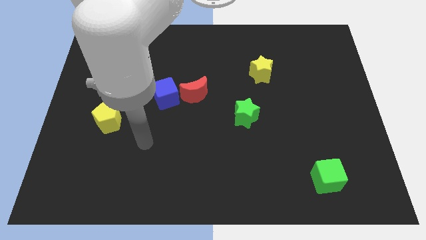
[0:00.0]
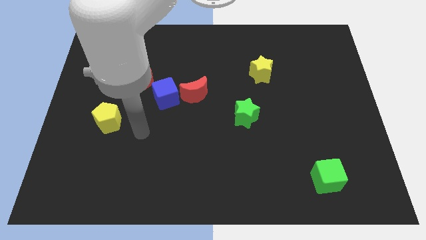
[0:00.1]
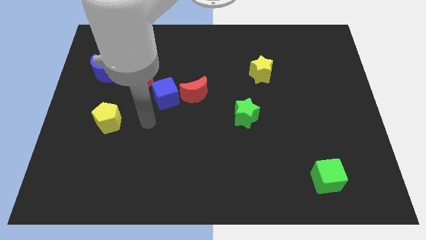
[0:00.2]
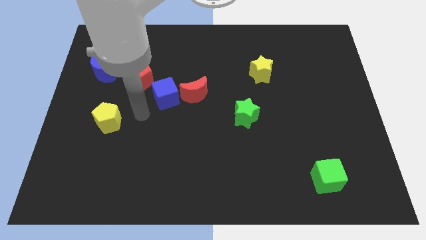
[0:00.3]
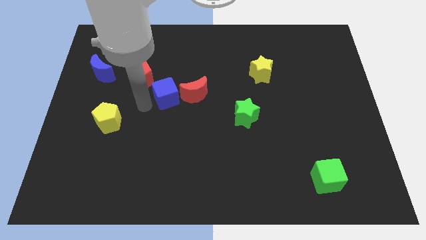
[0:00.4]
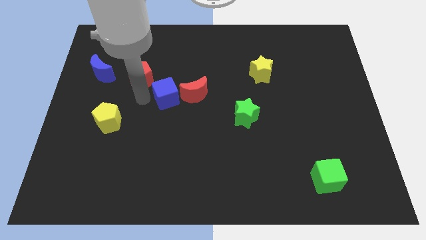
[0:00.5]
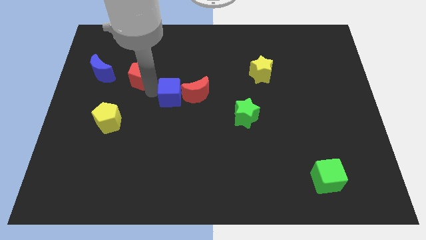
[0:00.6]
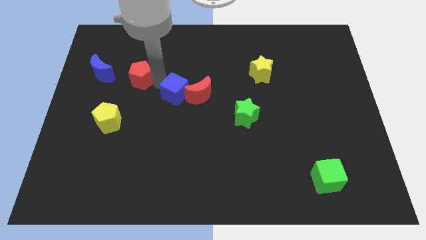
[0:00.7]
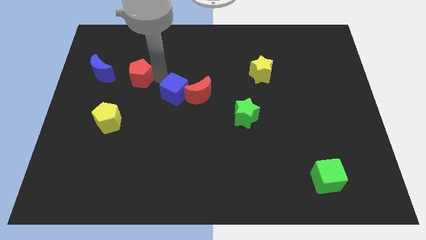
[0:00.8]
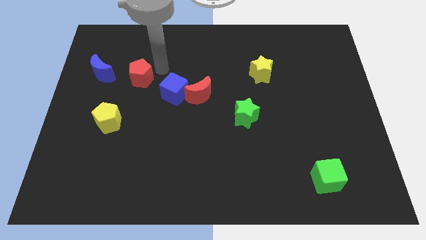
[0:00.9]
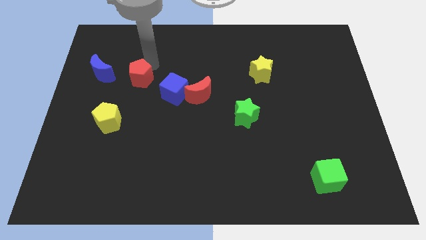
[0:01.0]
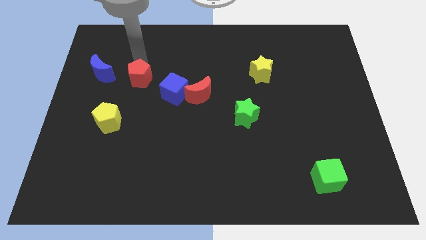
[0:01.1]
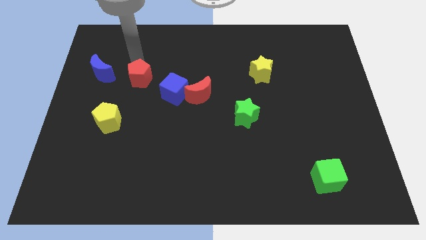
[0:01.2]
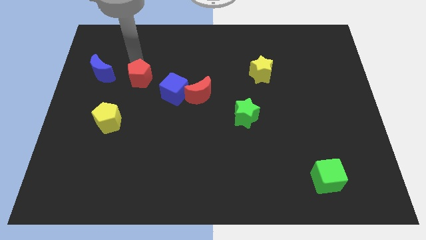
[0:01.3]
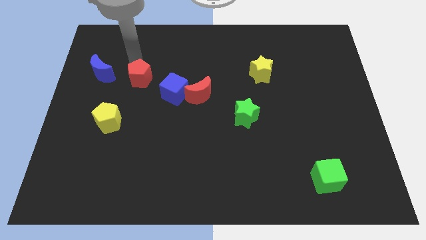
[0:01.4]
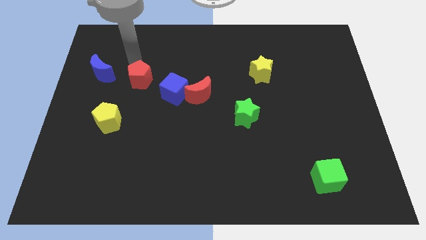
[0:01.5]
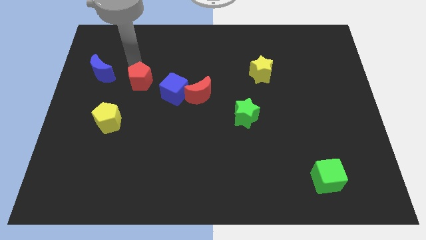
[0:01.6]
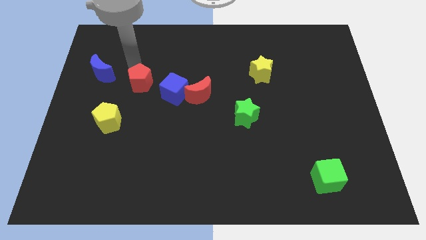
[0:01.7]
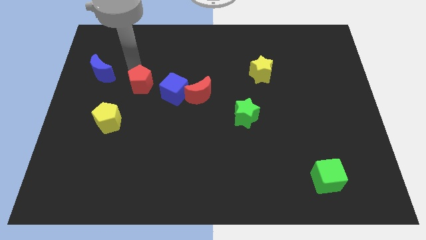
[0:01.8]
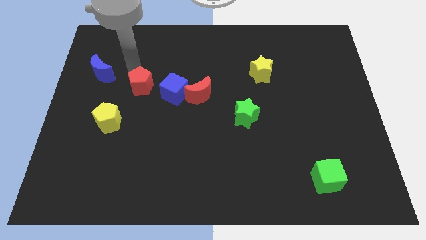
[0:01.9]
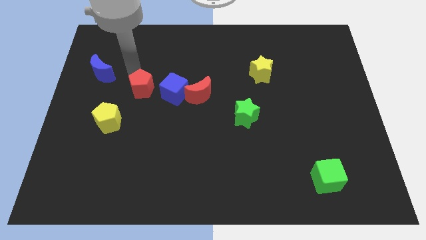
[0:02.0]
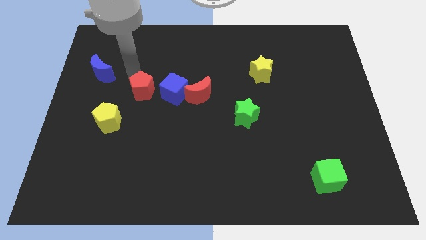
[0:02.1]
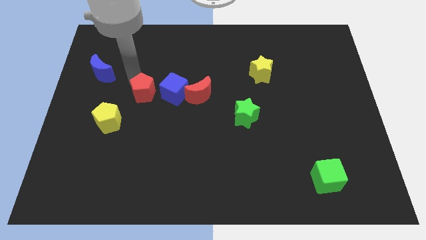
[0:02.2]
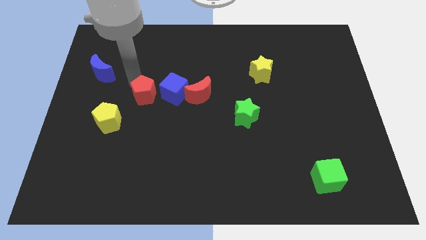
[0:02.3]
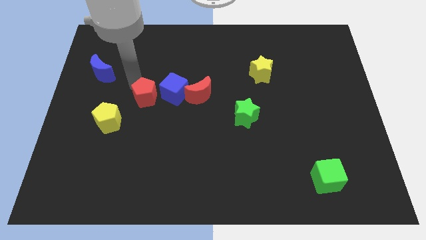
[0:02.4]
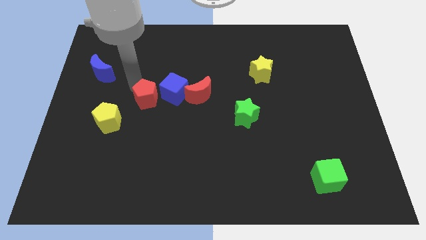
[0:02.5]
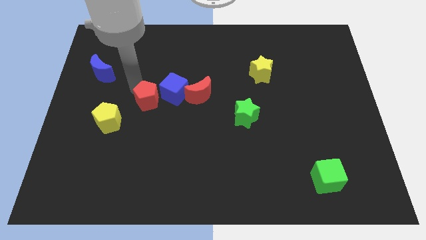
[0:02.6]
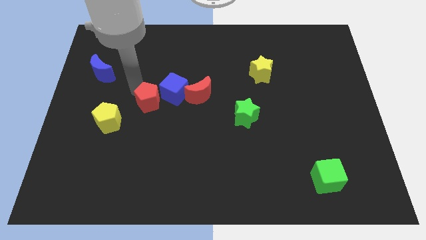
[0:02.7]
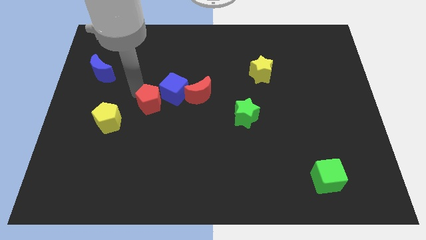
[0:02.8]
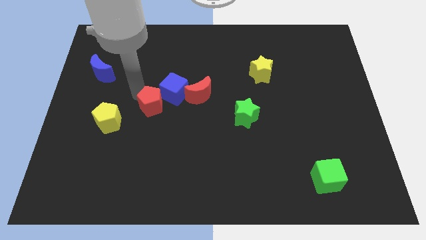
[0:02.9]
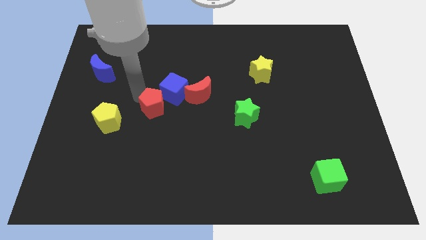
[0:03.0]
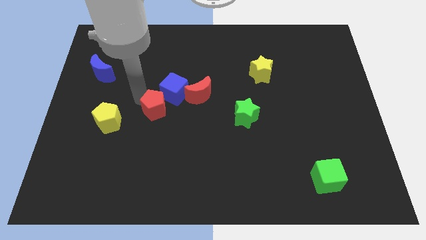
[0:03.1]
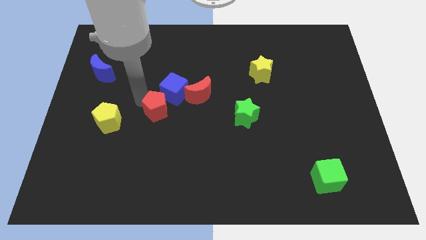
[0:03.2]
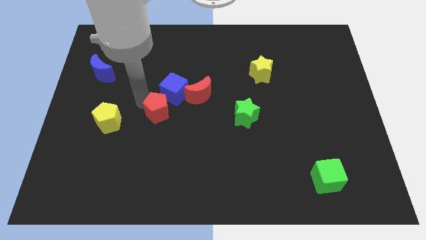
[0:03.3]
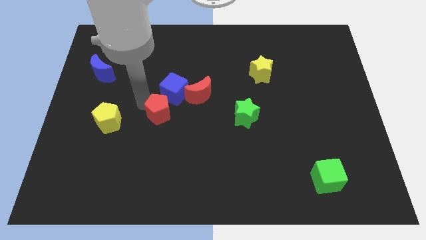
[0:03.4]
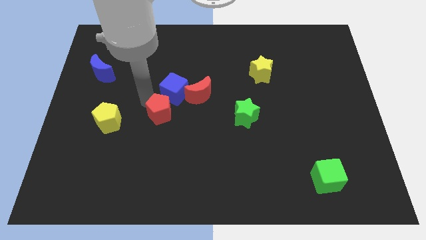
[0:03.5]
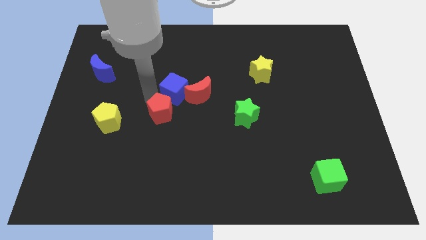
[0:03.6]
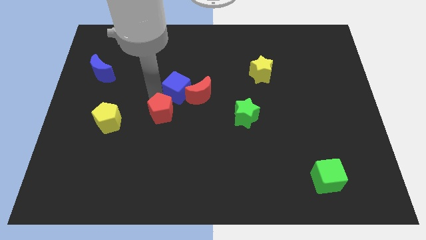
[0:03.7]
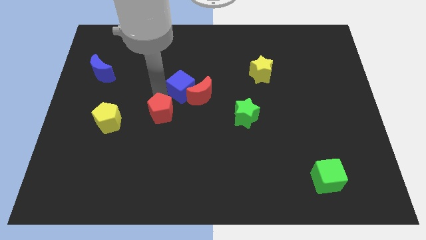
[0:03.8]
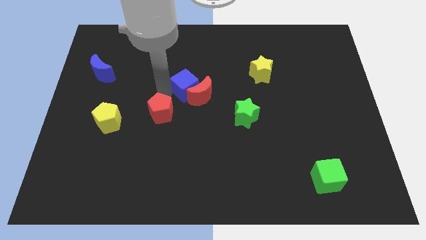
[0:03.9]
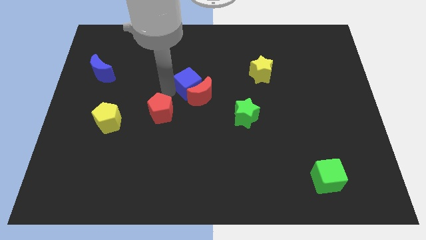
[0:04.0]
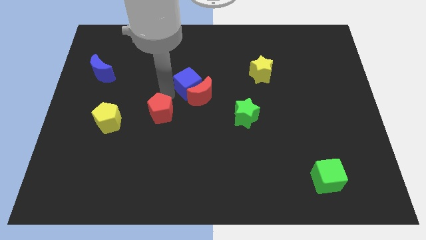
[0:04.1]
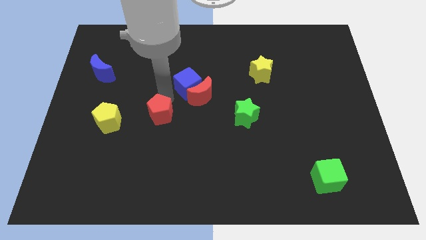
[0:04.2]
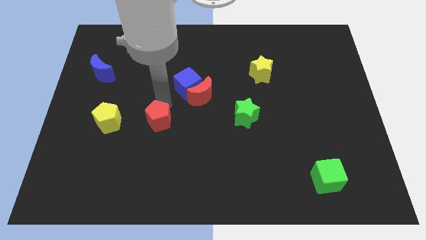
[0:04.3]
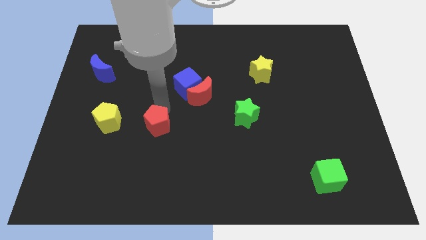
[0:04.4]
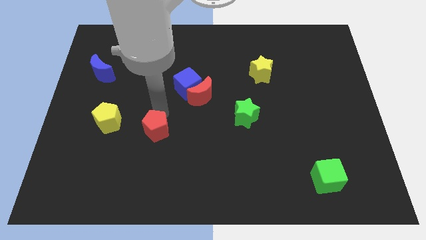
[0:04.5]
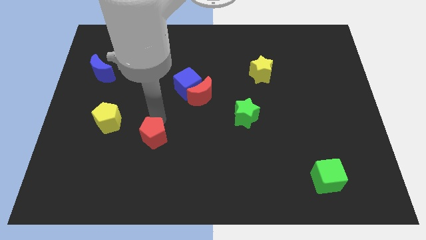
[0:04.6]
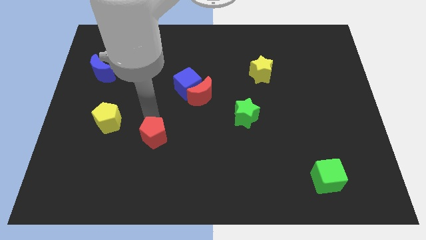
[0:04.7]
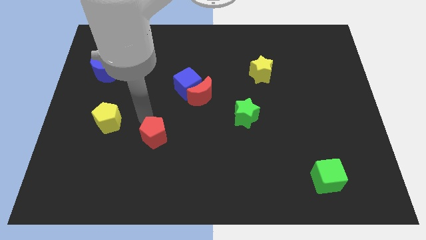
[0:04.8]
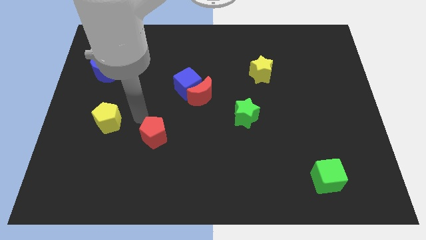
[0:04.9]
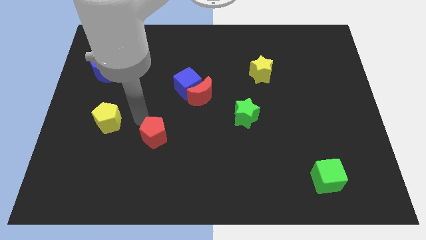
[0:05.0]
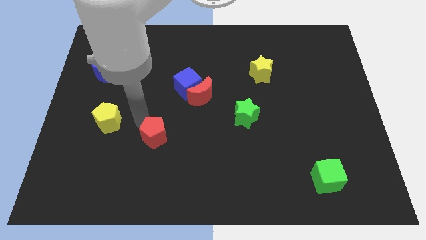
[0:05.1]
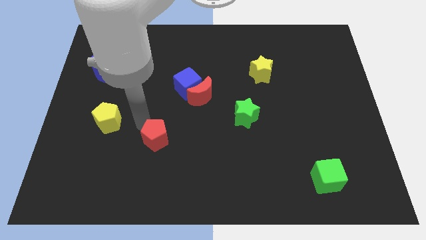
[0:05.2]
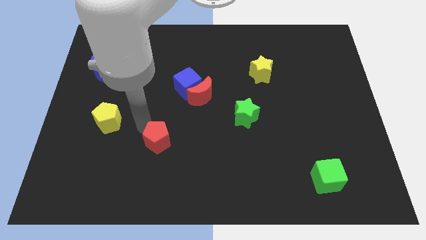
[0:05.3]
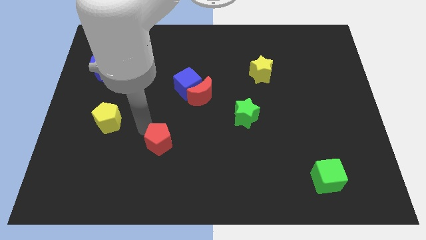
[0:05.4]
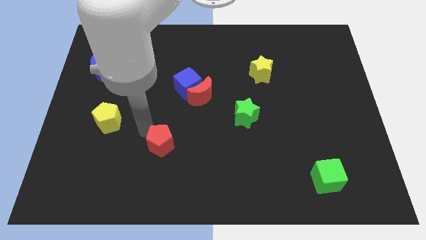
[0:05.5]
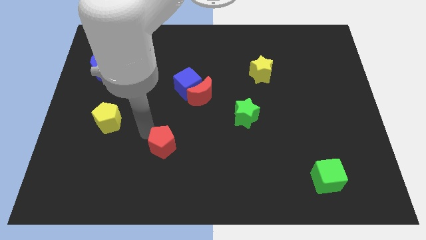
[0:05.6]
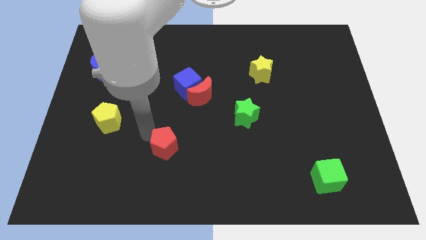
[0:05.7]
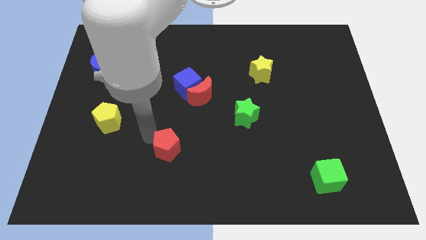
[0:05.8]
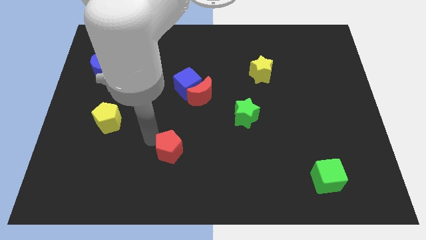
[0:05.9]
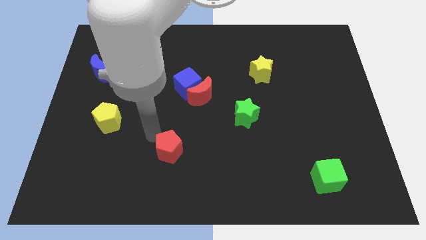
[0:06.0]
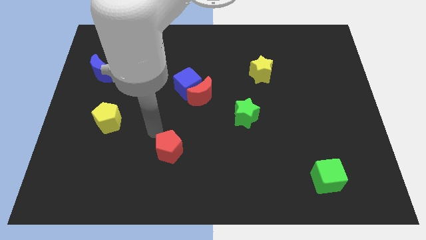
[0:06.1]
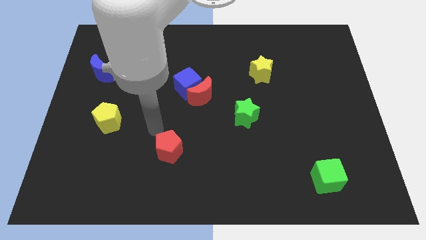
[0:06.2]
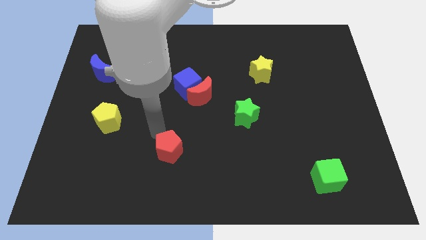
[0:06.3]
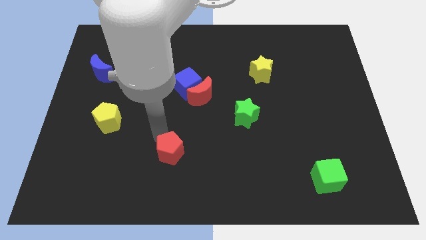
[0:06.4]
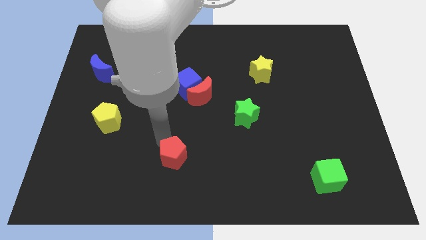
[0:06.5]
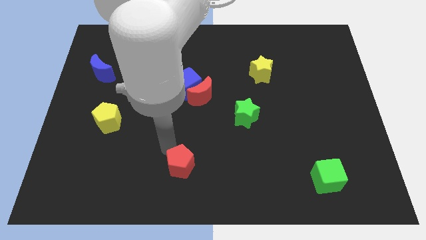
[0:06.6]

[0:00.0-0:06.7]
slide the red pentagon to the bottom side
